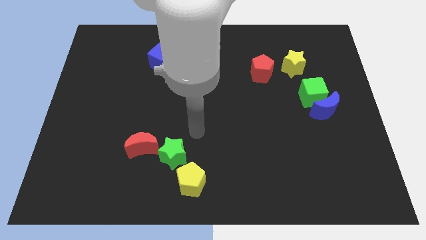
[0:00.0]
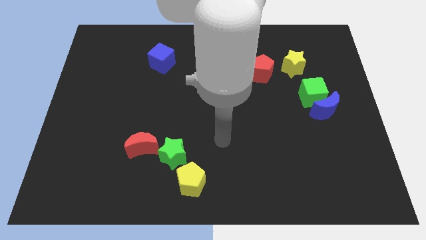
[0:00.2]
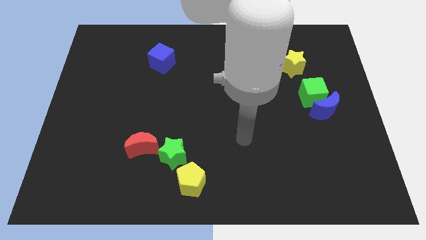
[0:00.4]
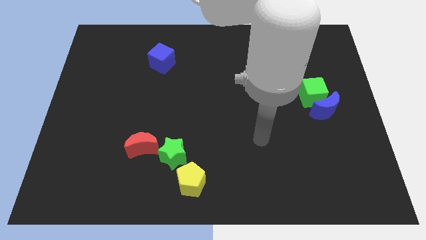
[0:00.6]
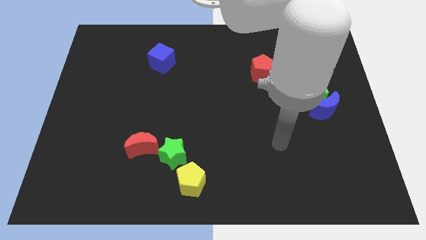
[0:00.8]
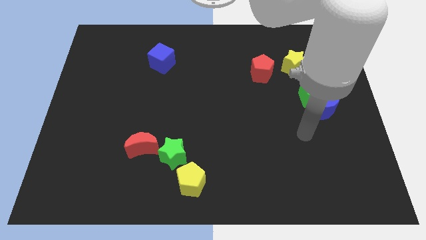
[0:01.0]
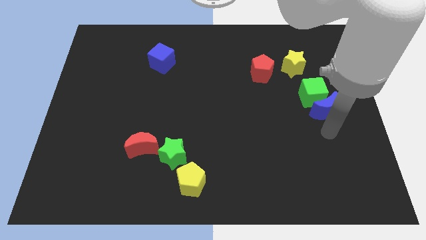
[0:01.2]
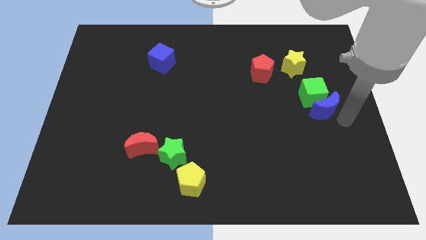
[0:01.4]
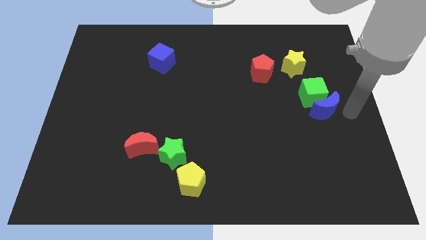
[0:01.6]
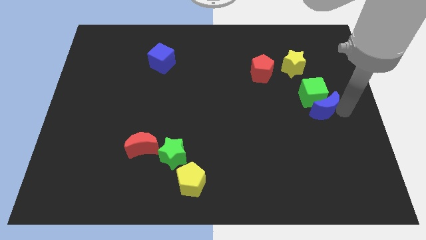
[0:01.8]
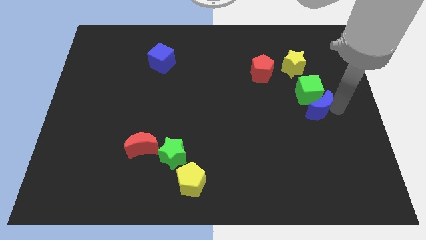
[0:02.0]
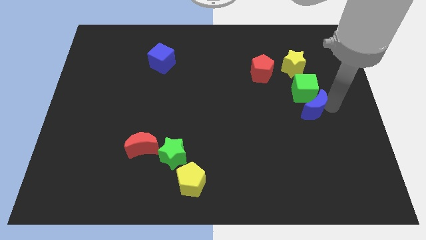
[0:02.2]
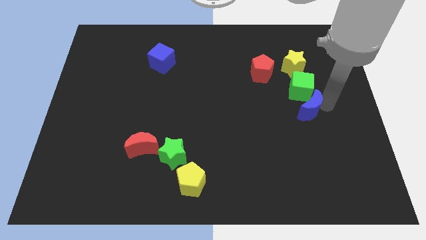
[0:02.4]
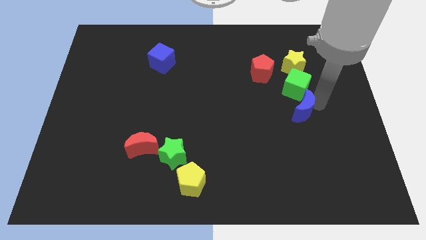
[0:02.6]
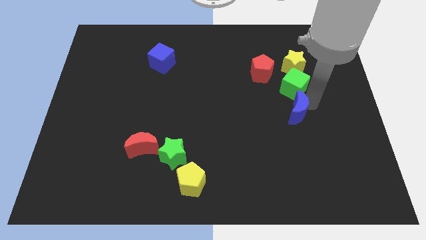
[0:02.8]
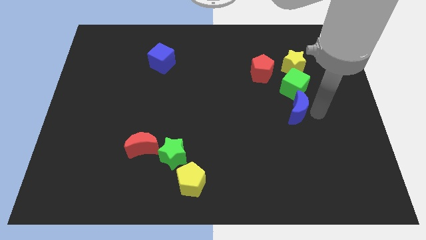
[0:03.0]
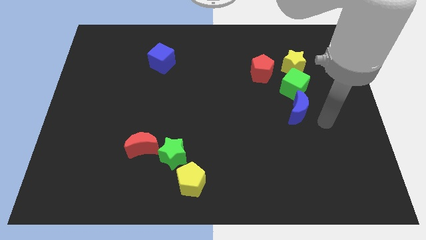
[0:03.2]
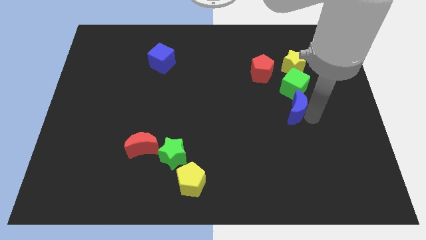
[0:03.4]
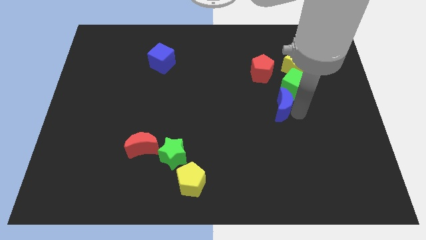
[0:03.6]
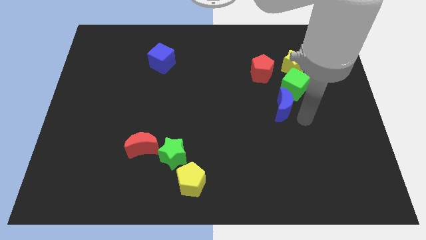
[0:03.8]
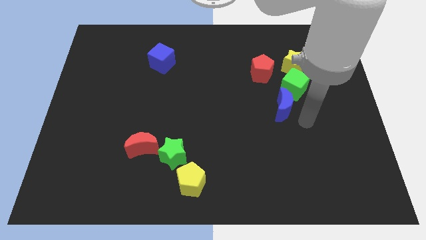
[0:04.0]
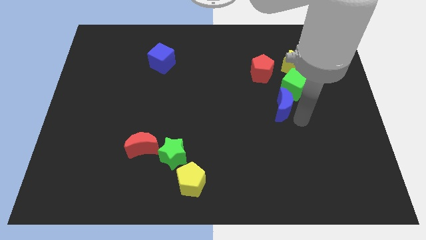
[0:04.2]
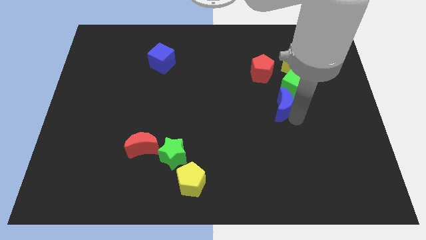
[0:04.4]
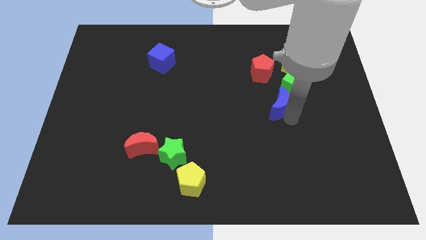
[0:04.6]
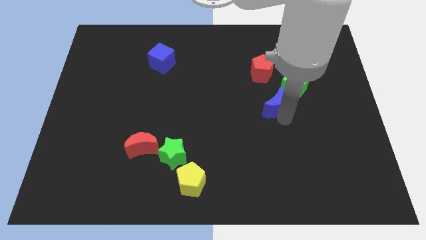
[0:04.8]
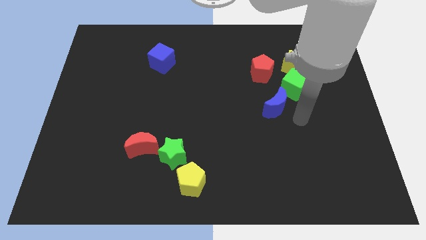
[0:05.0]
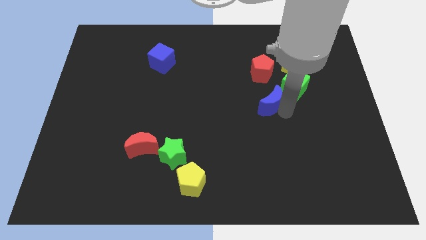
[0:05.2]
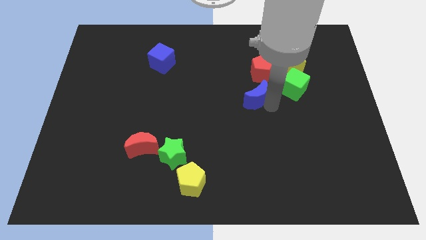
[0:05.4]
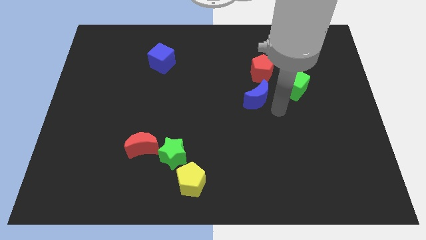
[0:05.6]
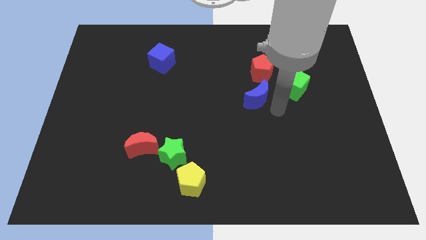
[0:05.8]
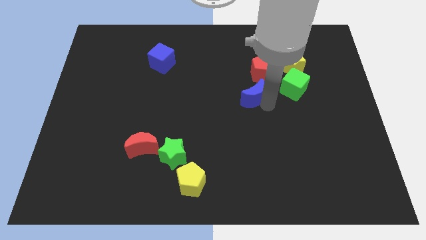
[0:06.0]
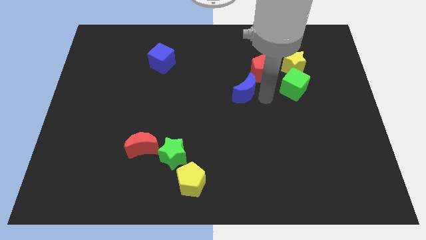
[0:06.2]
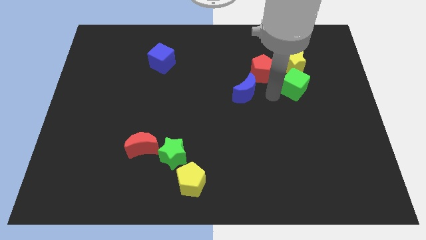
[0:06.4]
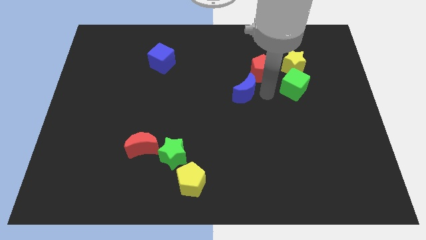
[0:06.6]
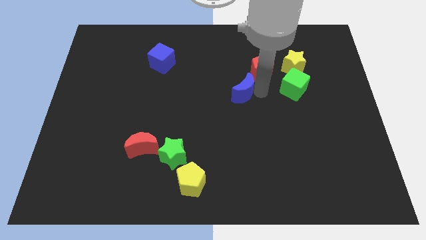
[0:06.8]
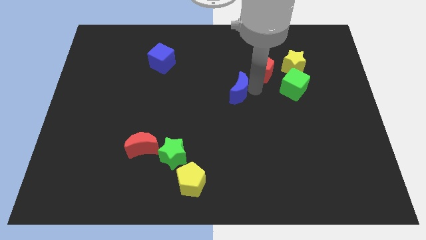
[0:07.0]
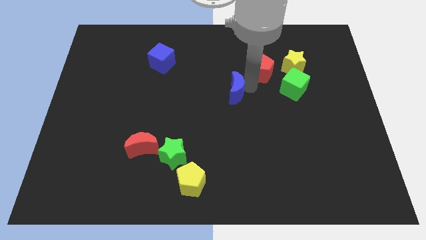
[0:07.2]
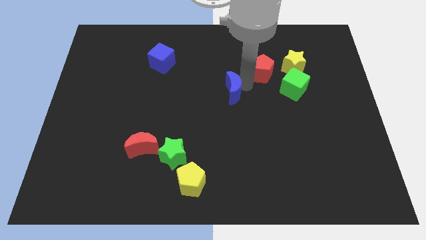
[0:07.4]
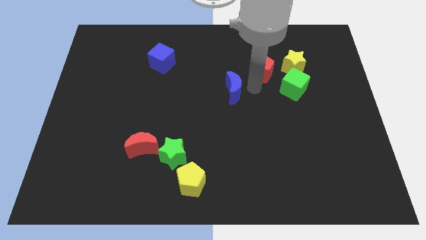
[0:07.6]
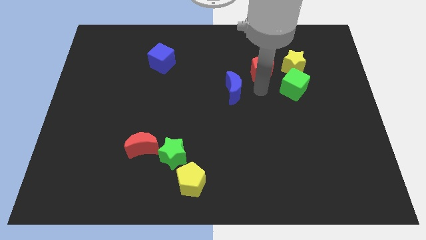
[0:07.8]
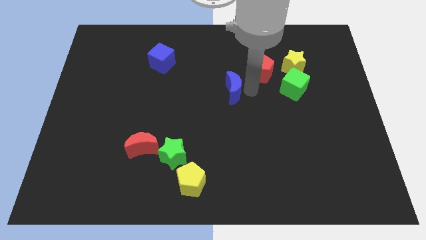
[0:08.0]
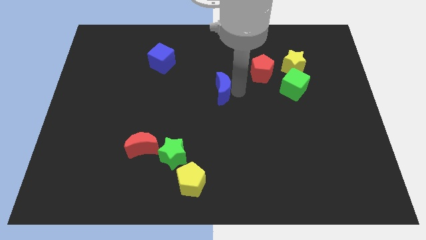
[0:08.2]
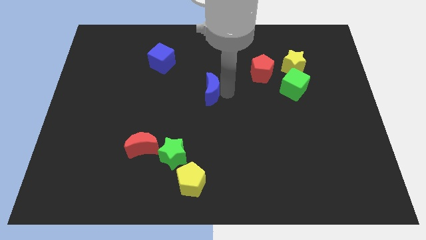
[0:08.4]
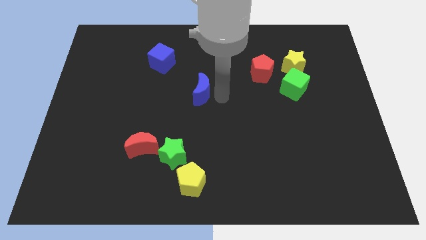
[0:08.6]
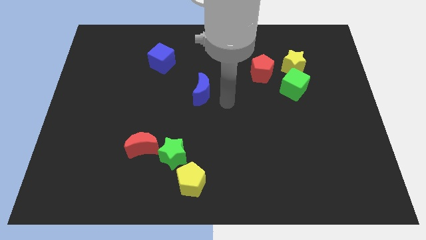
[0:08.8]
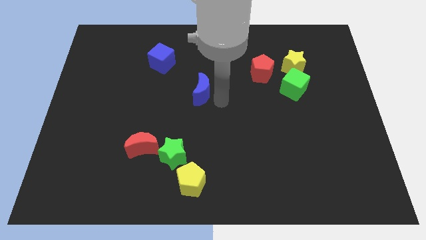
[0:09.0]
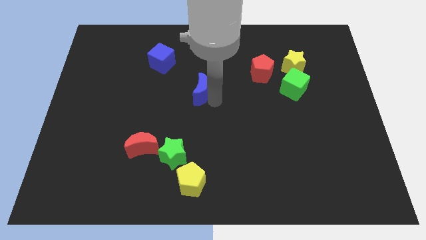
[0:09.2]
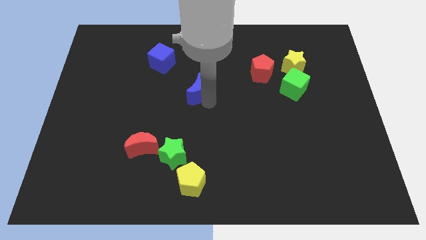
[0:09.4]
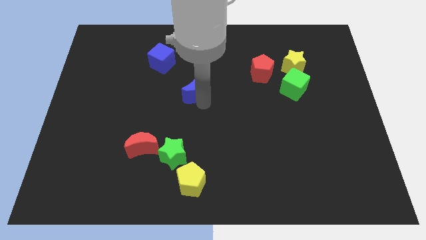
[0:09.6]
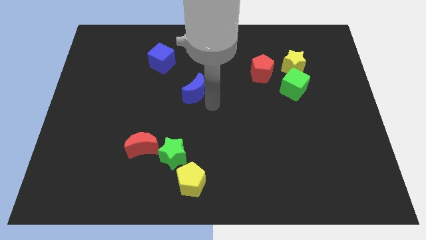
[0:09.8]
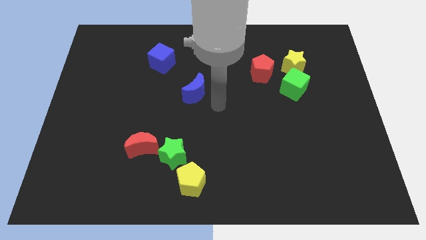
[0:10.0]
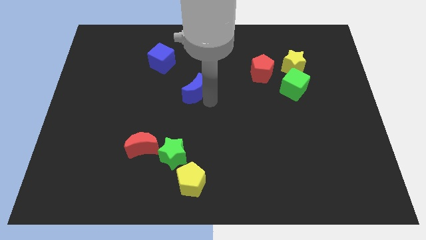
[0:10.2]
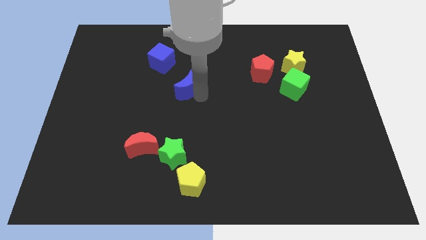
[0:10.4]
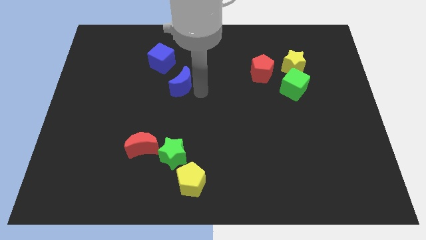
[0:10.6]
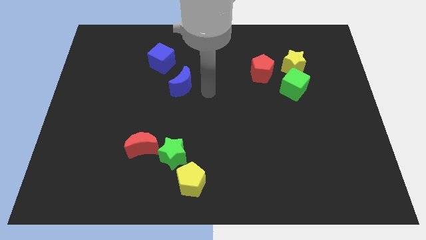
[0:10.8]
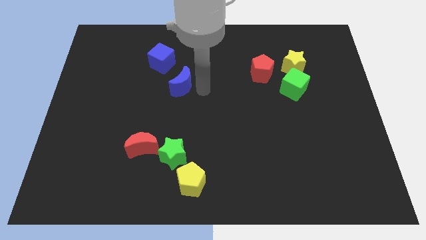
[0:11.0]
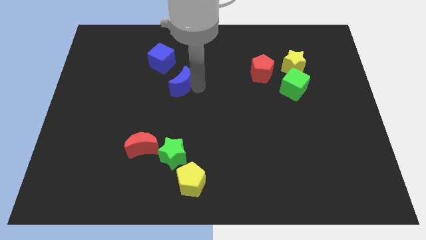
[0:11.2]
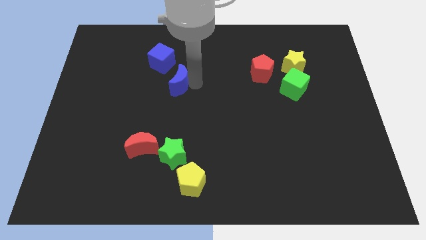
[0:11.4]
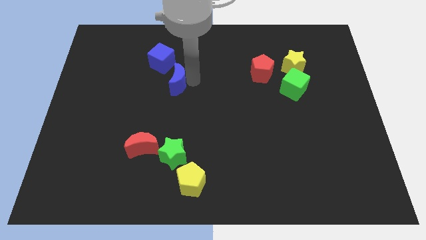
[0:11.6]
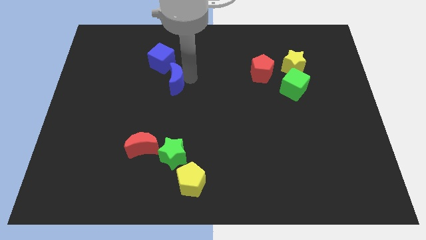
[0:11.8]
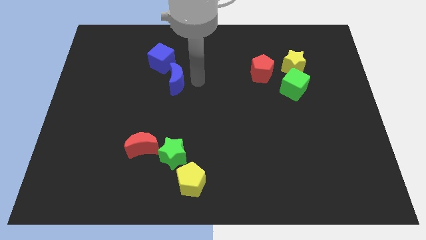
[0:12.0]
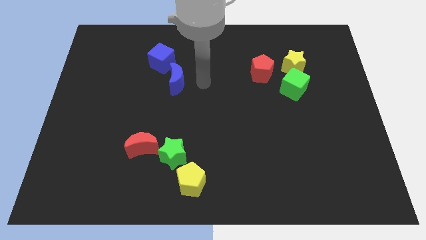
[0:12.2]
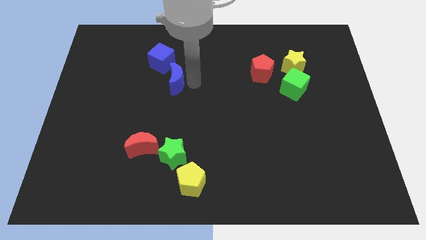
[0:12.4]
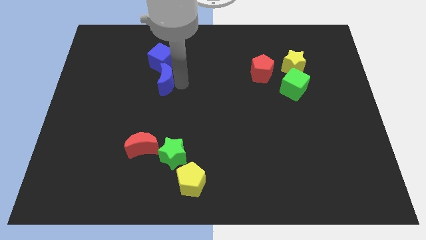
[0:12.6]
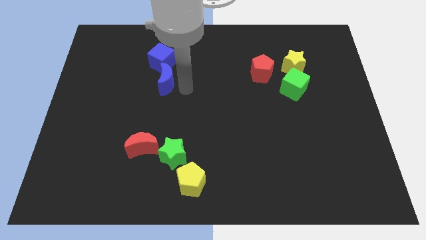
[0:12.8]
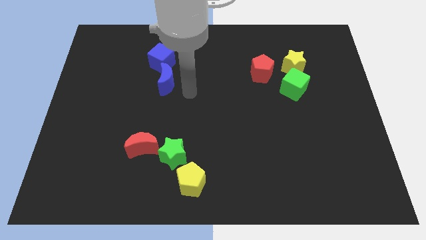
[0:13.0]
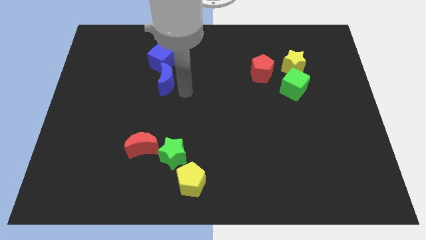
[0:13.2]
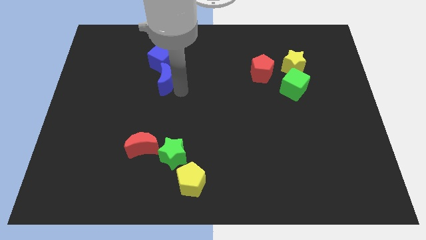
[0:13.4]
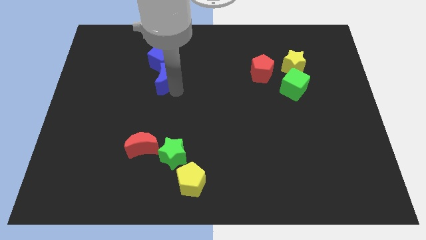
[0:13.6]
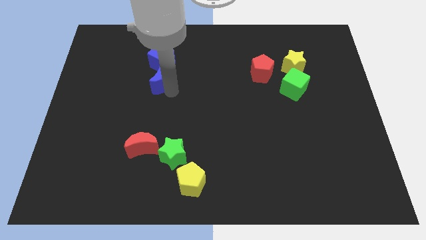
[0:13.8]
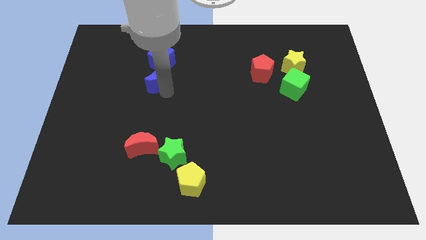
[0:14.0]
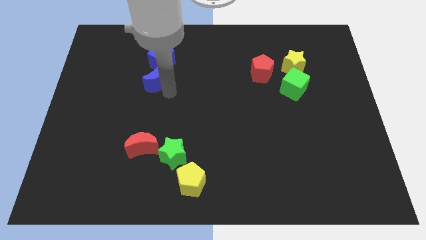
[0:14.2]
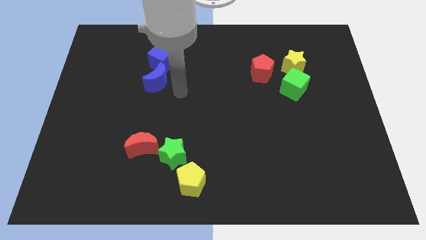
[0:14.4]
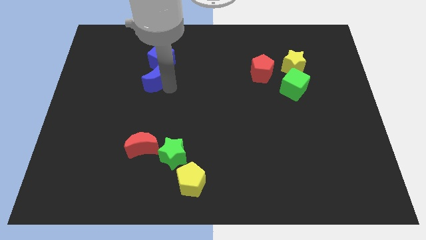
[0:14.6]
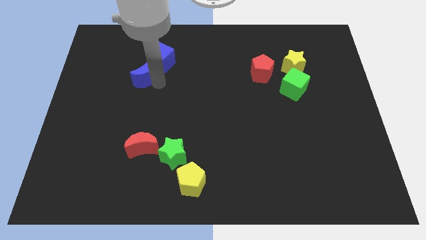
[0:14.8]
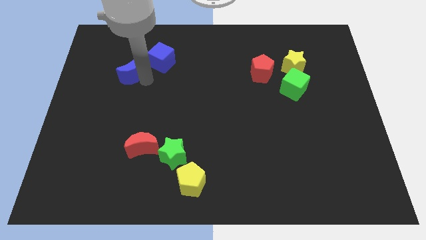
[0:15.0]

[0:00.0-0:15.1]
slide the blue moon to the left of the blue cube
